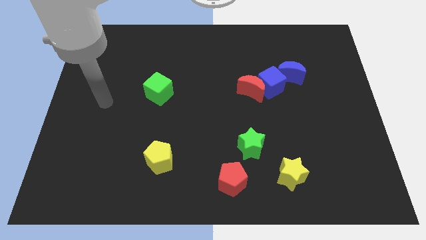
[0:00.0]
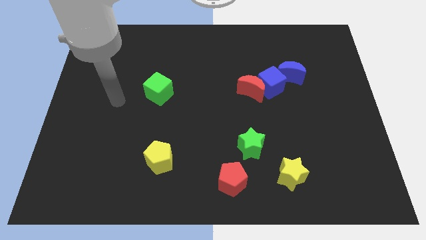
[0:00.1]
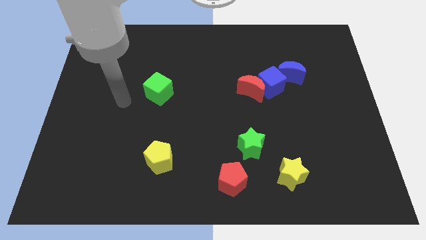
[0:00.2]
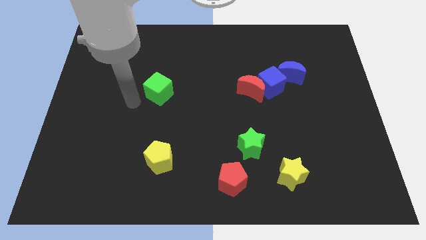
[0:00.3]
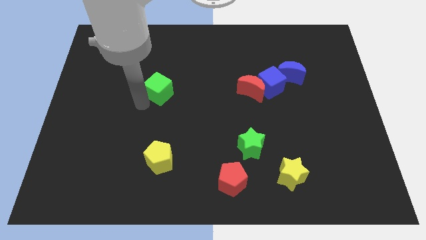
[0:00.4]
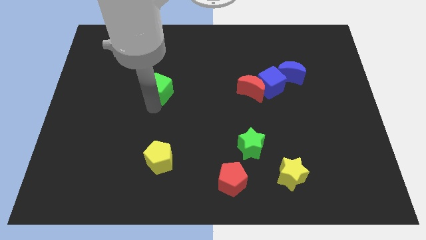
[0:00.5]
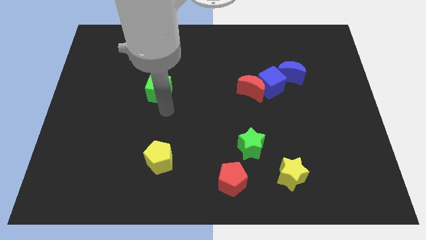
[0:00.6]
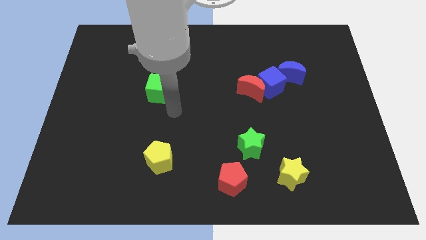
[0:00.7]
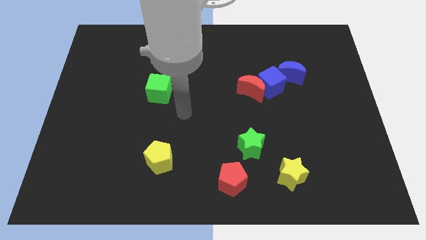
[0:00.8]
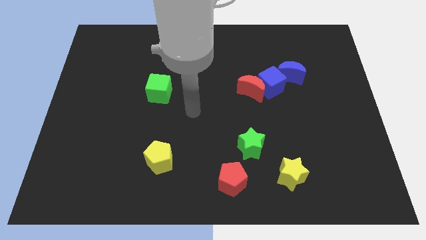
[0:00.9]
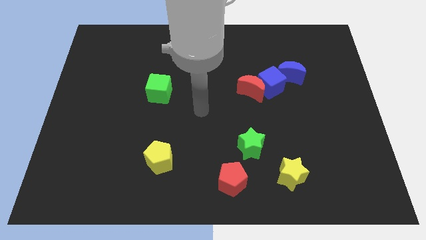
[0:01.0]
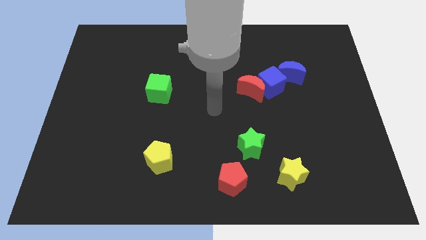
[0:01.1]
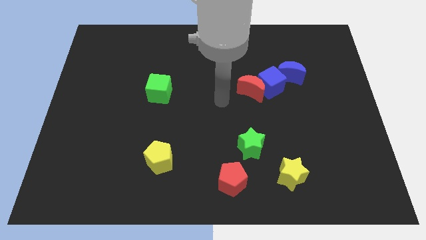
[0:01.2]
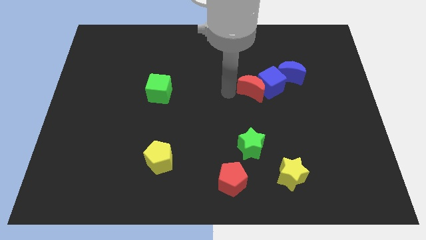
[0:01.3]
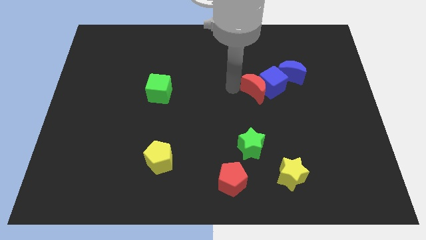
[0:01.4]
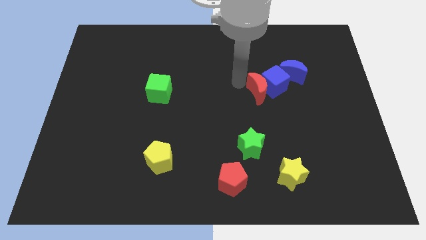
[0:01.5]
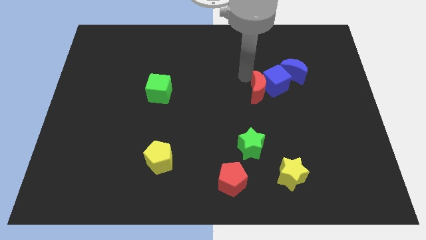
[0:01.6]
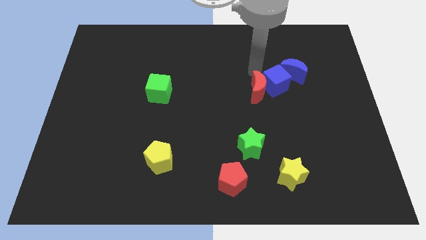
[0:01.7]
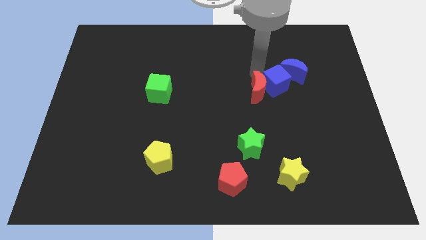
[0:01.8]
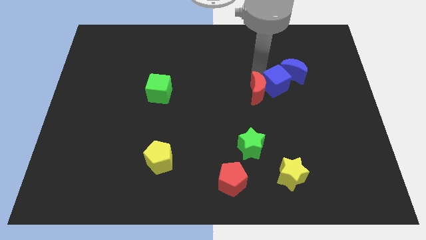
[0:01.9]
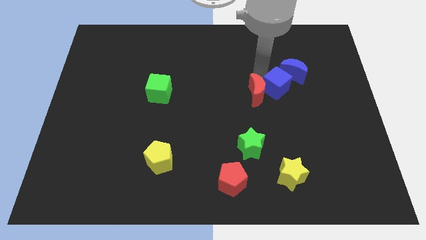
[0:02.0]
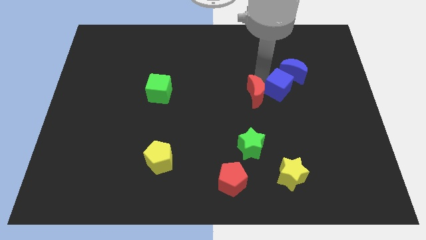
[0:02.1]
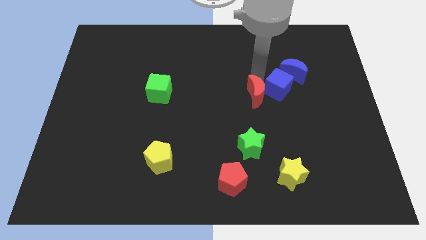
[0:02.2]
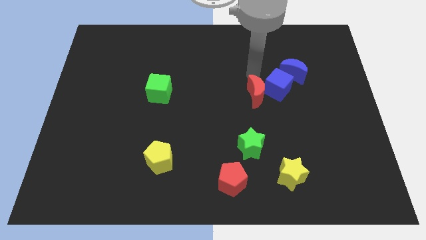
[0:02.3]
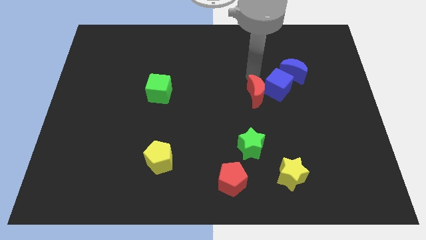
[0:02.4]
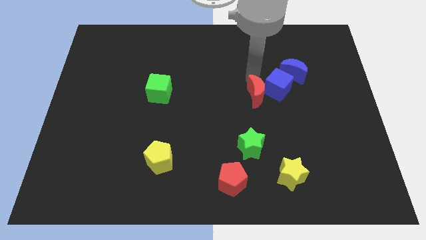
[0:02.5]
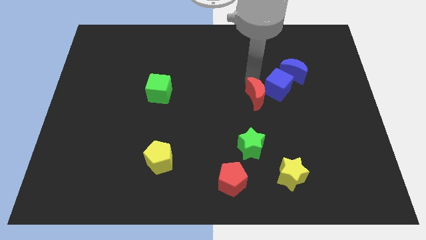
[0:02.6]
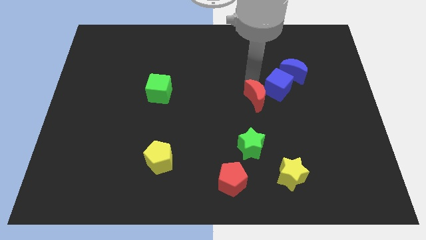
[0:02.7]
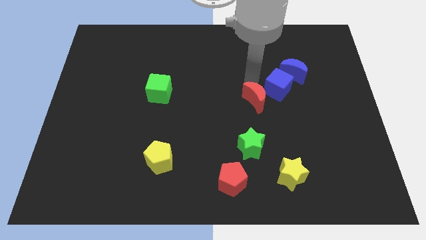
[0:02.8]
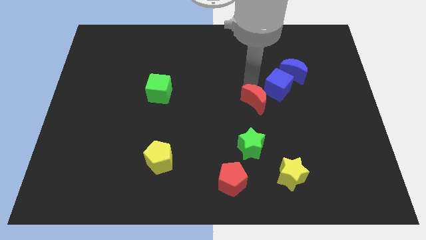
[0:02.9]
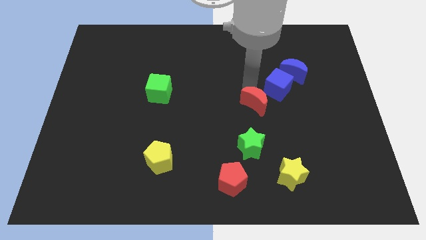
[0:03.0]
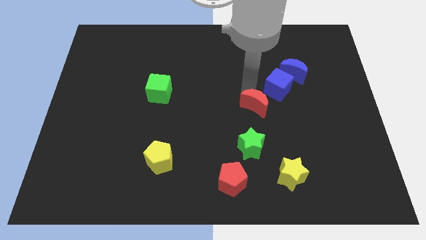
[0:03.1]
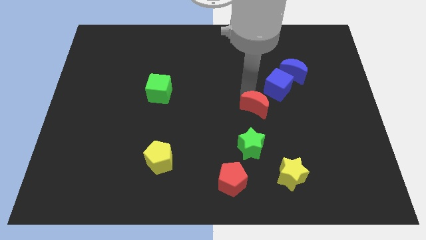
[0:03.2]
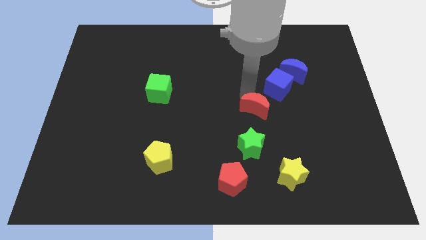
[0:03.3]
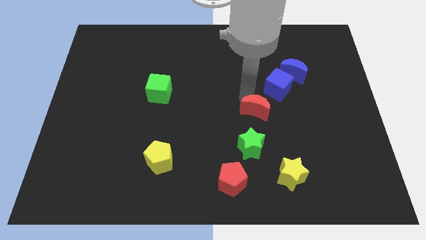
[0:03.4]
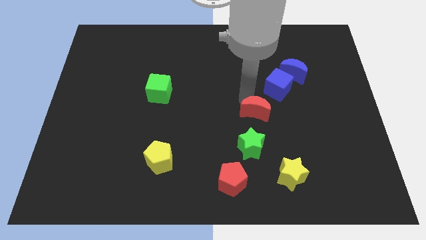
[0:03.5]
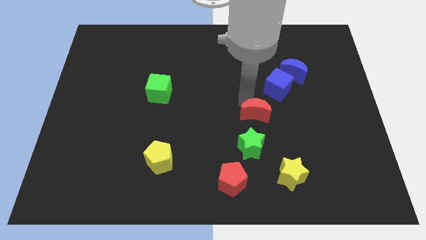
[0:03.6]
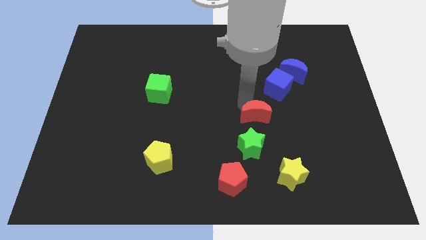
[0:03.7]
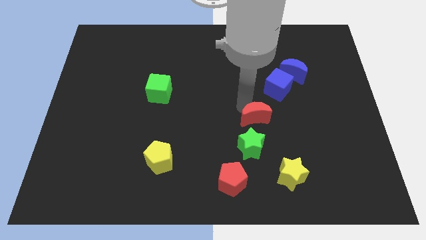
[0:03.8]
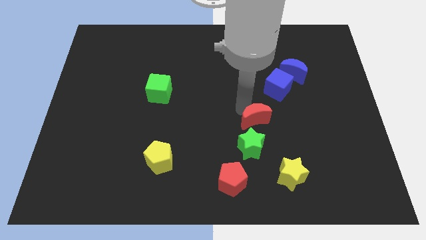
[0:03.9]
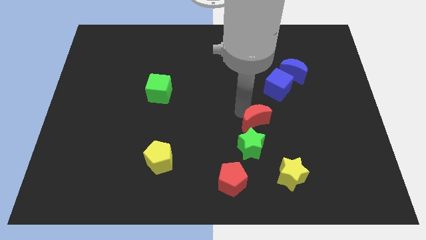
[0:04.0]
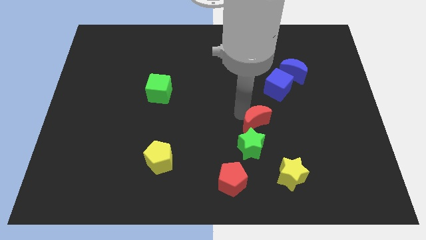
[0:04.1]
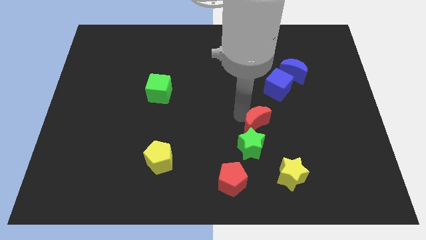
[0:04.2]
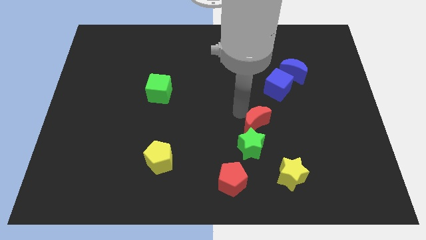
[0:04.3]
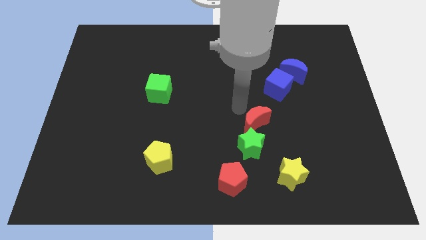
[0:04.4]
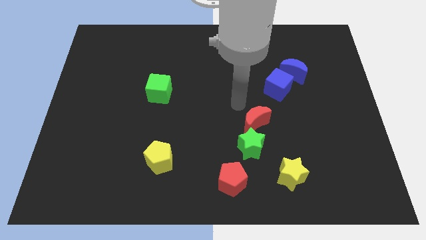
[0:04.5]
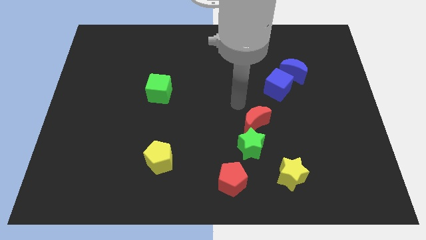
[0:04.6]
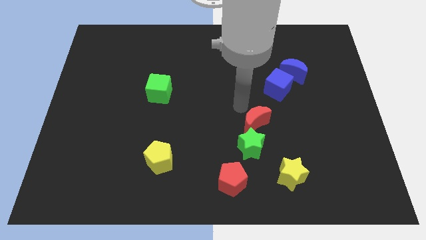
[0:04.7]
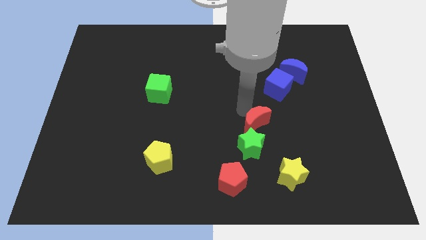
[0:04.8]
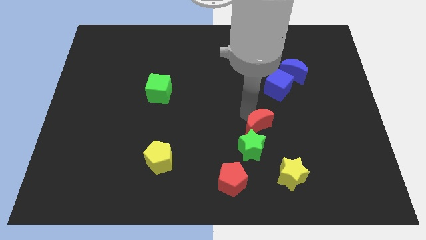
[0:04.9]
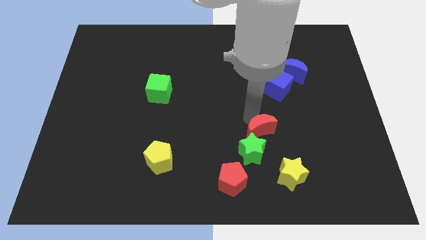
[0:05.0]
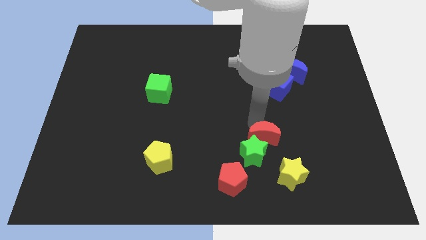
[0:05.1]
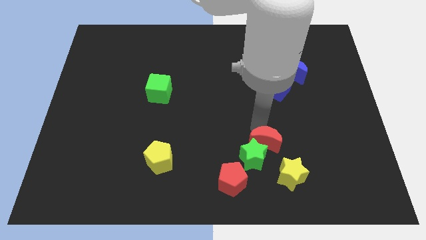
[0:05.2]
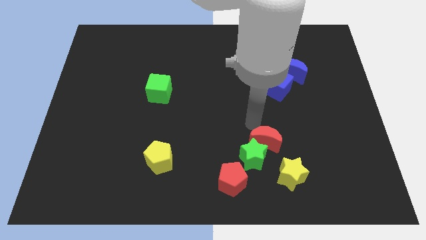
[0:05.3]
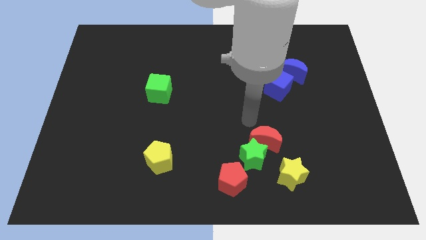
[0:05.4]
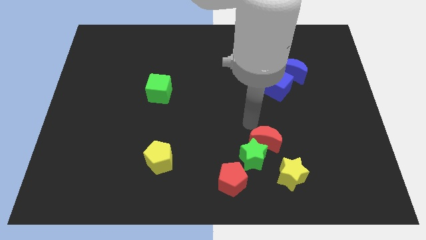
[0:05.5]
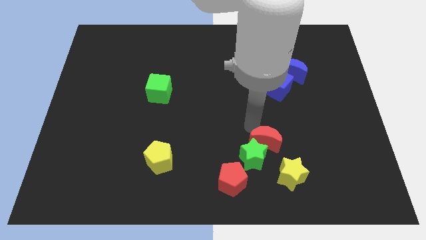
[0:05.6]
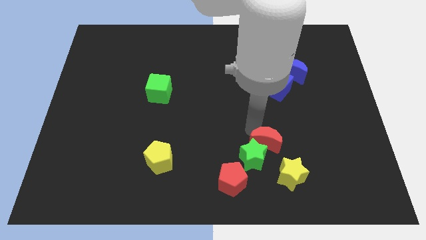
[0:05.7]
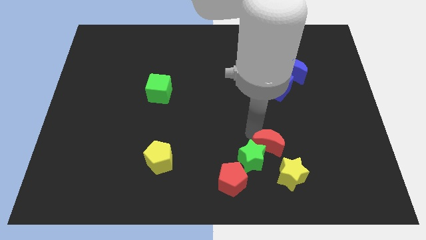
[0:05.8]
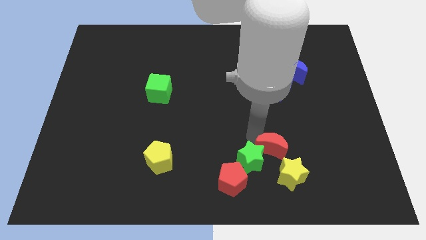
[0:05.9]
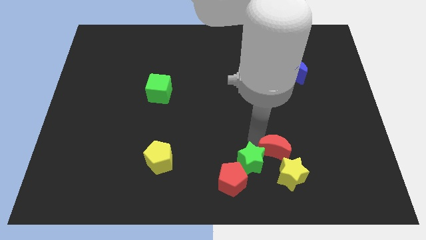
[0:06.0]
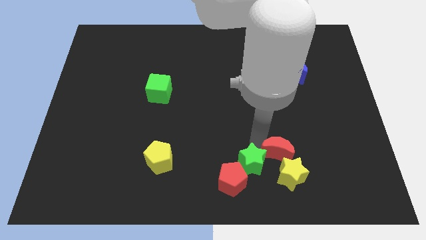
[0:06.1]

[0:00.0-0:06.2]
move the red moon next to the yellow star
